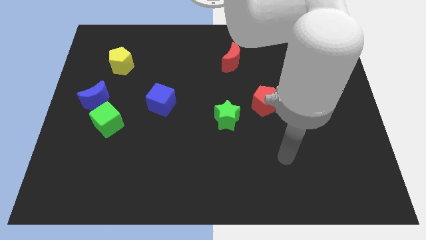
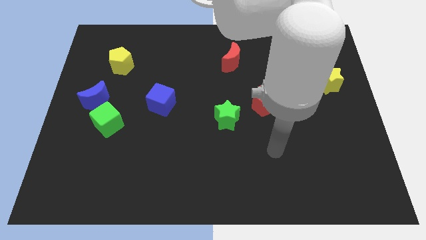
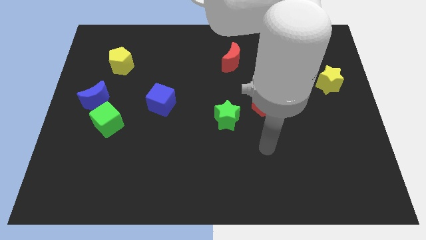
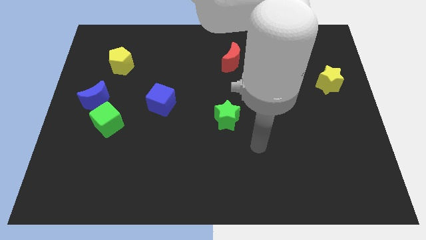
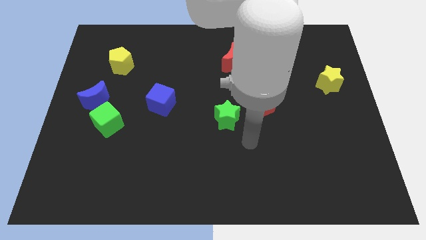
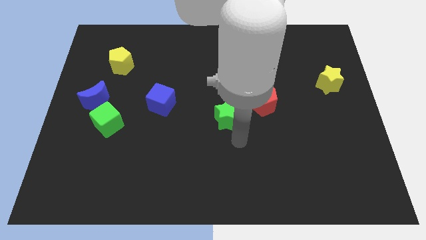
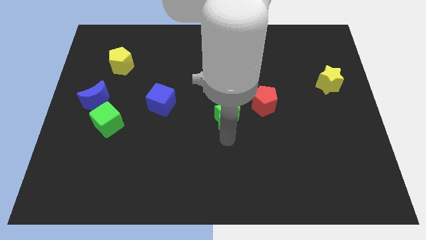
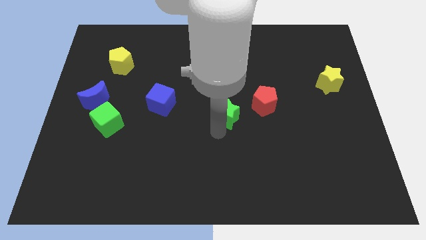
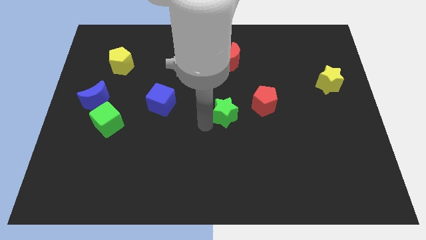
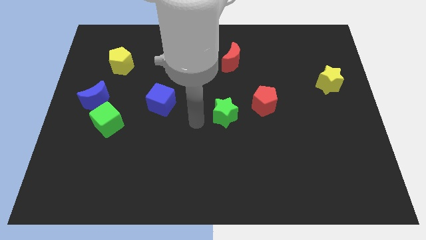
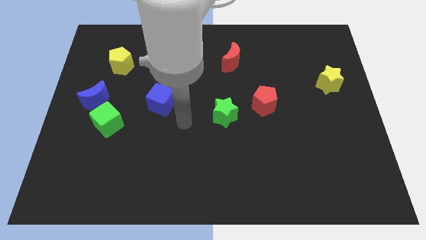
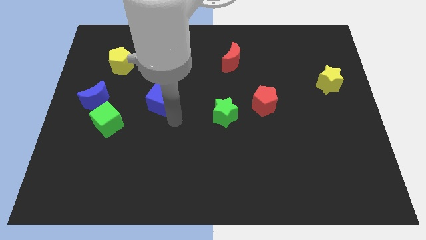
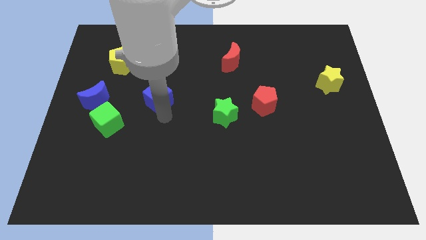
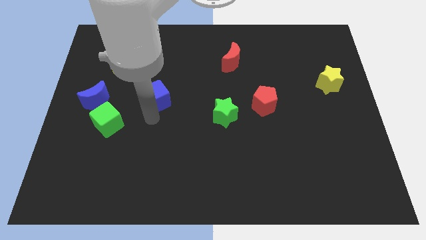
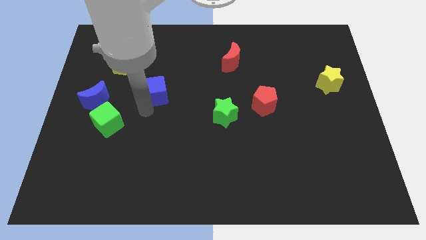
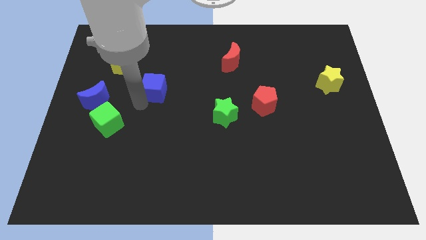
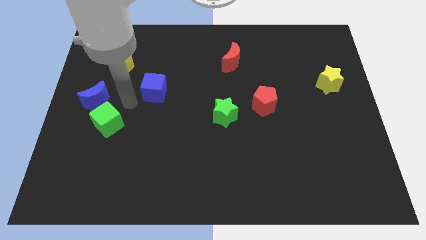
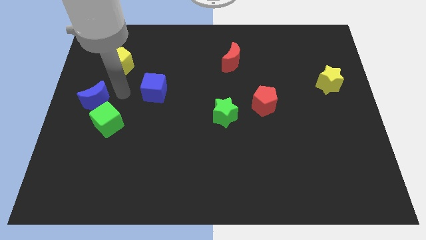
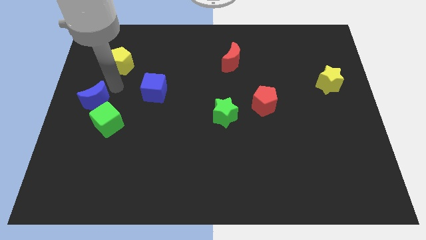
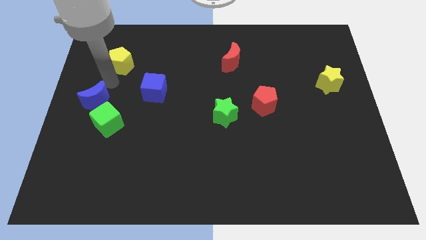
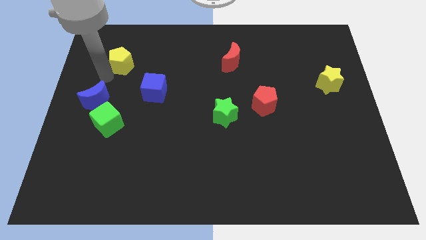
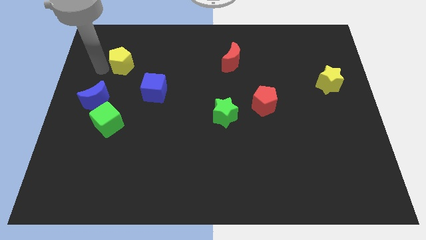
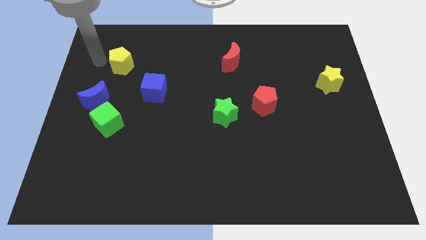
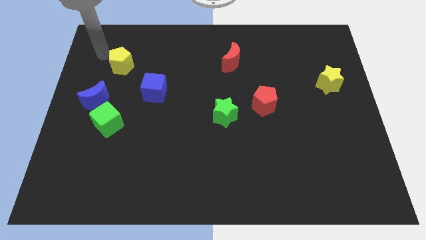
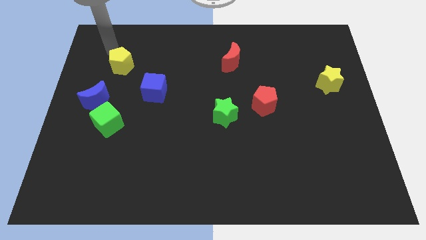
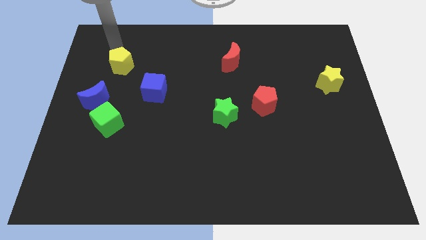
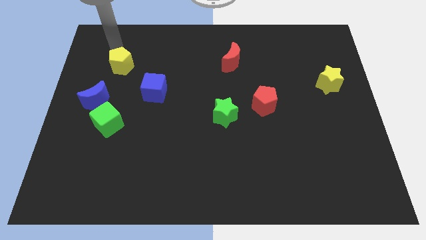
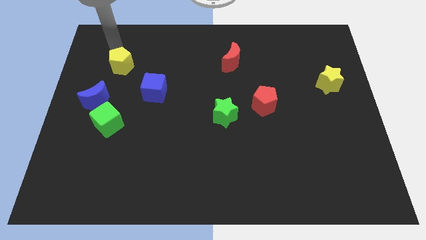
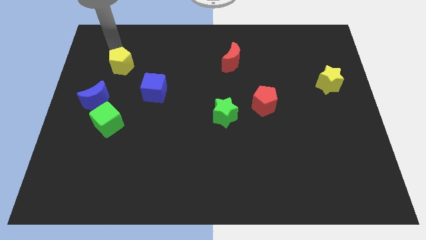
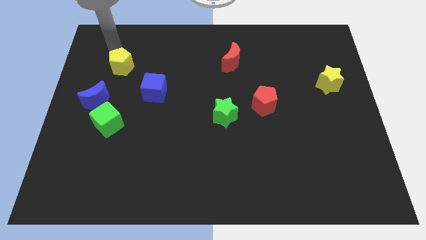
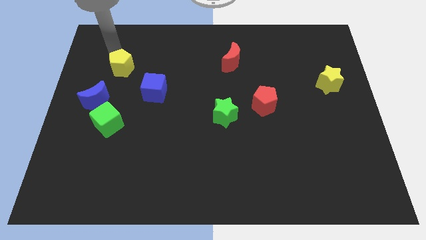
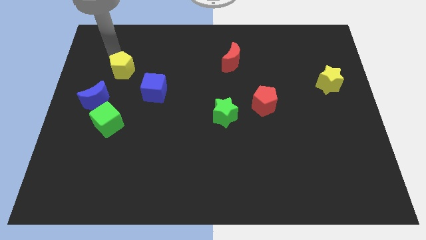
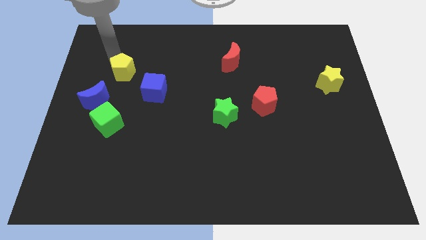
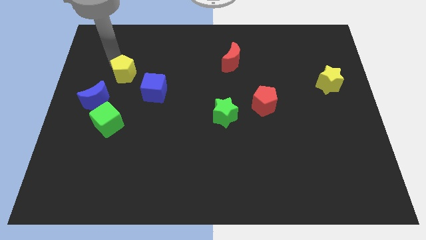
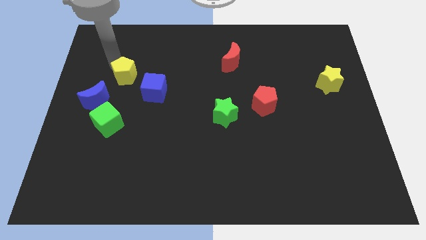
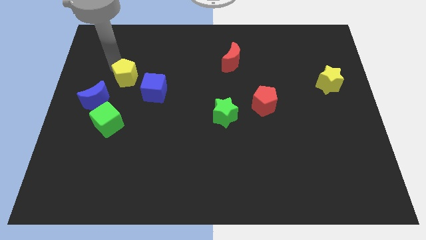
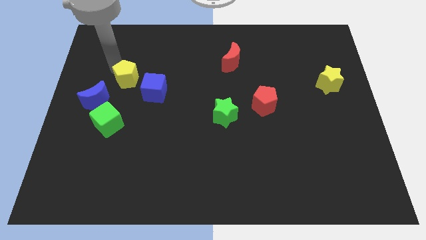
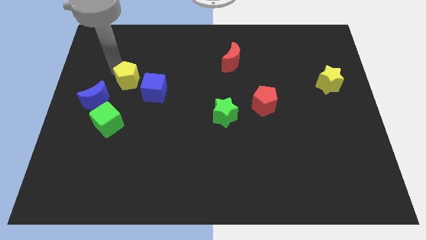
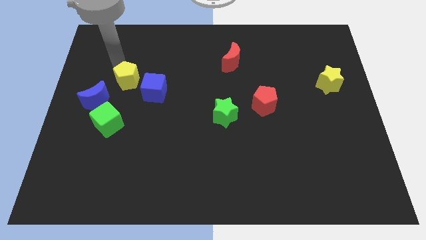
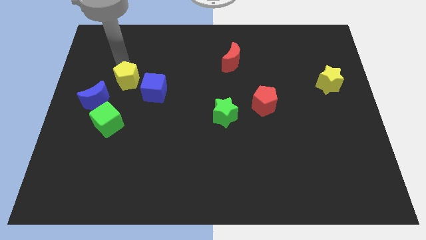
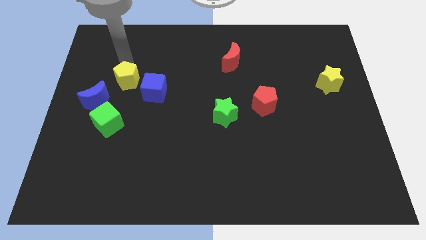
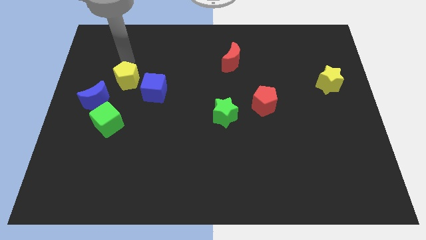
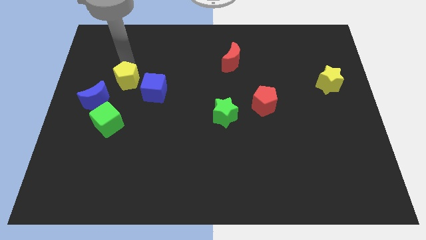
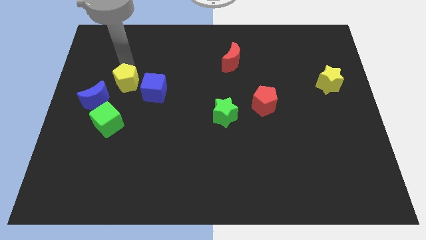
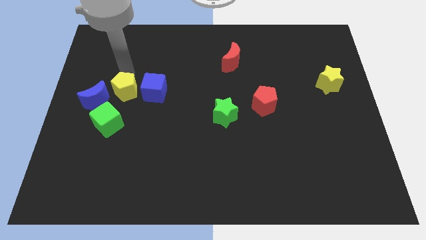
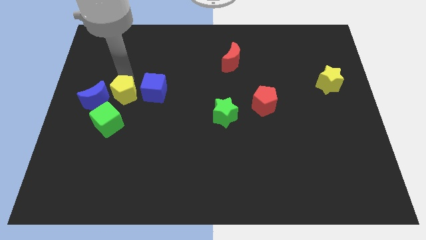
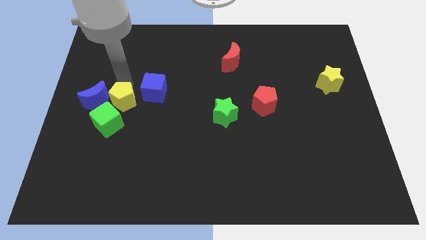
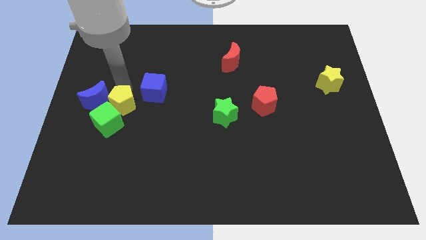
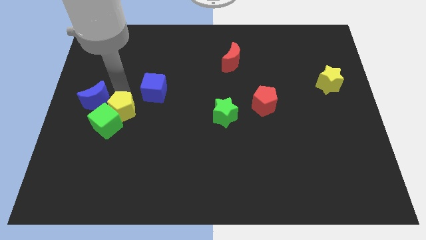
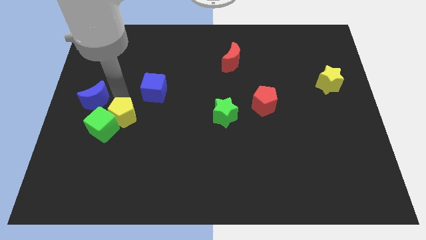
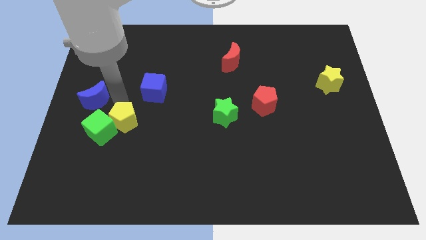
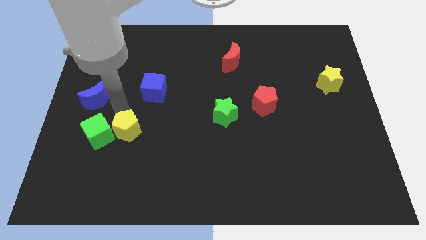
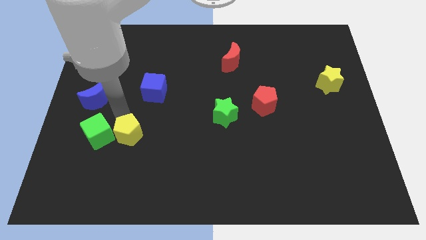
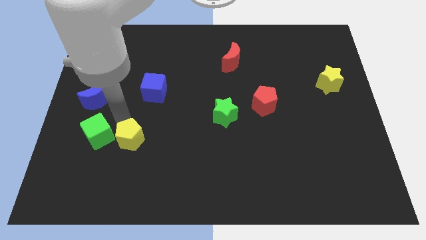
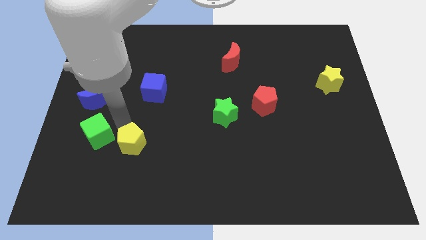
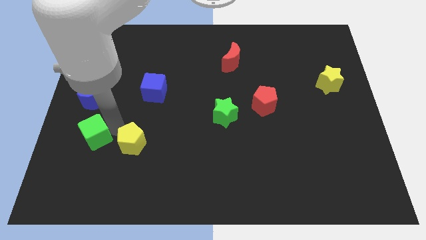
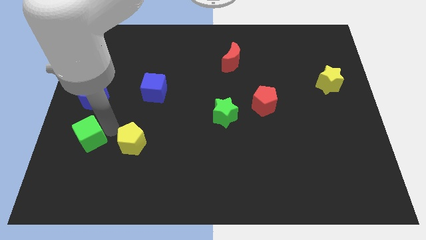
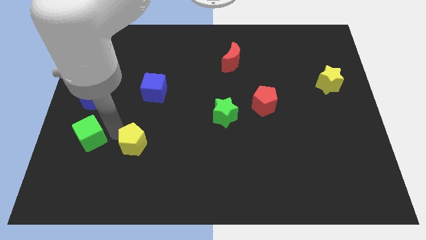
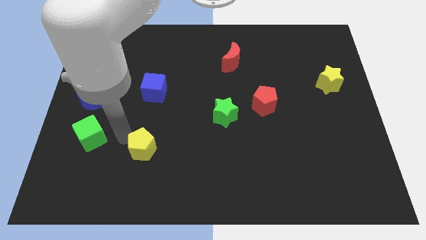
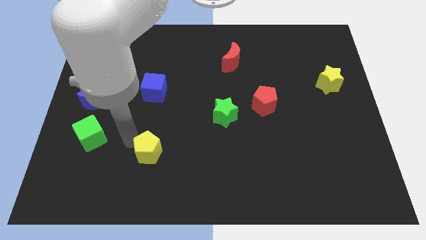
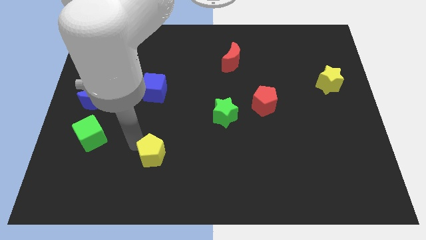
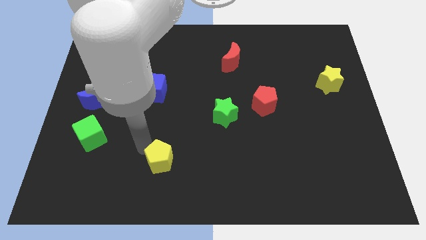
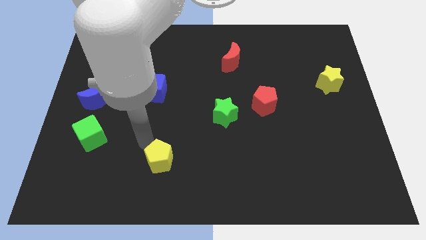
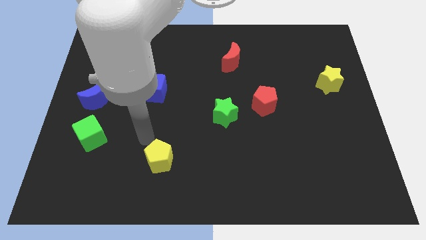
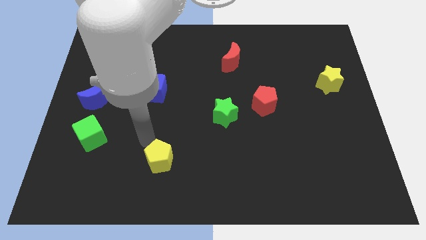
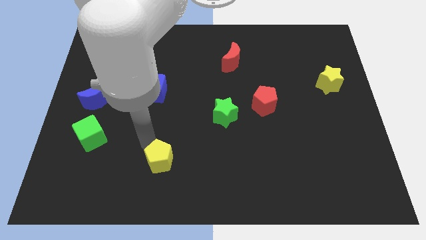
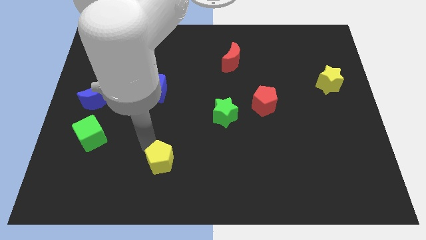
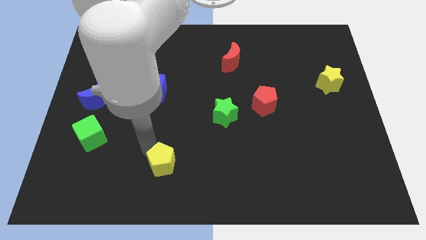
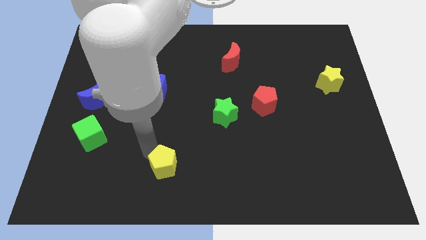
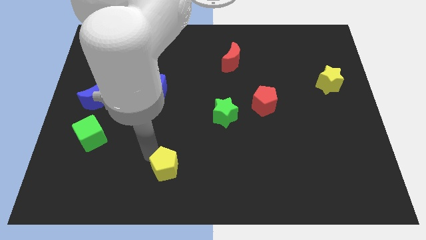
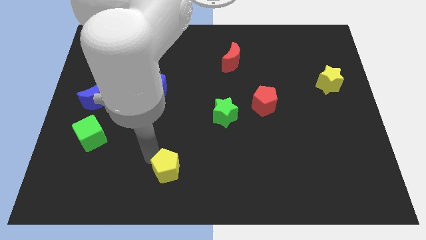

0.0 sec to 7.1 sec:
slide the yellow pentagon to the bottom
